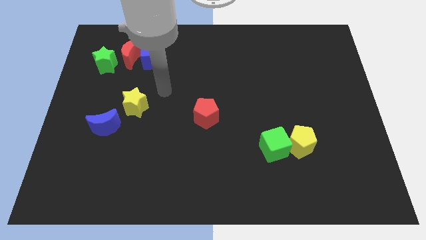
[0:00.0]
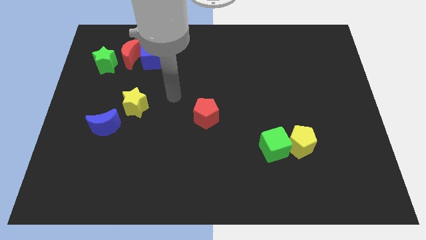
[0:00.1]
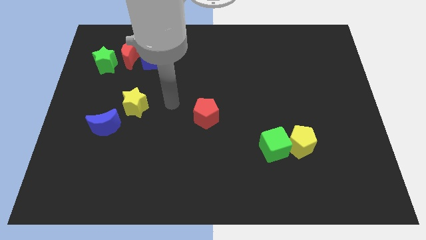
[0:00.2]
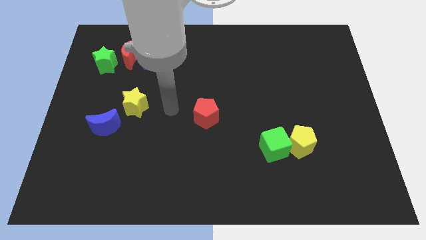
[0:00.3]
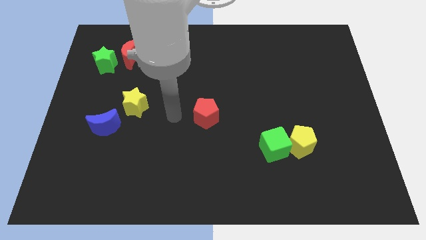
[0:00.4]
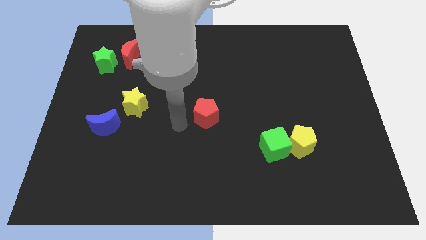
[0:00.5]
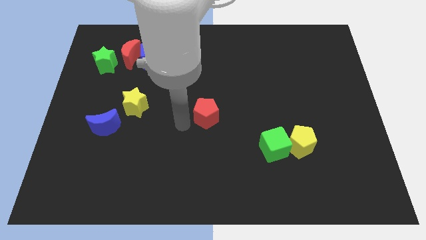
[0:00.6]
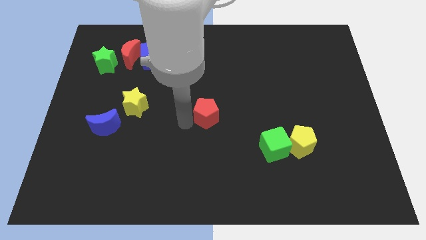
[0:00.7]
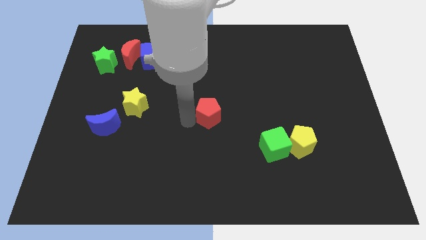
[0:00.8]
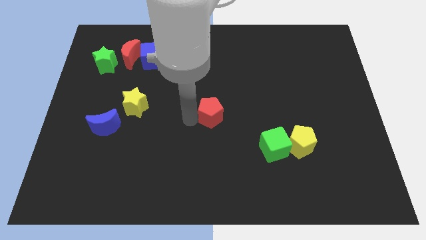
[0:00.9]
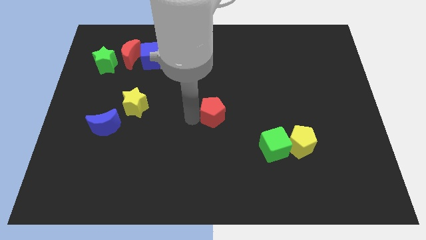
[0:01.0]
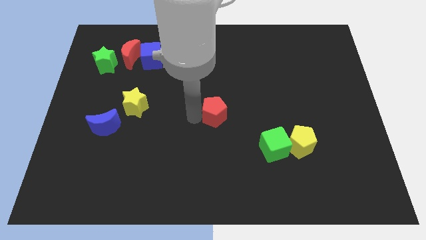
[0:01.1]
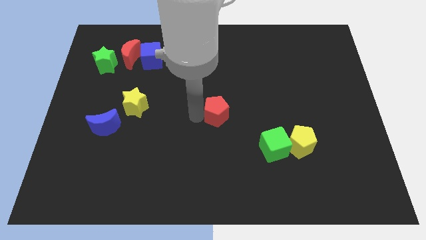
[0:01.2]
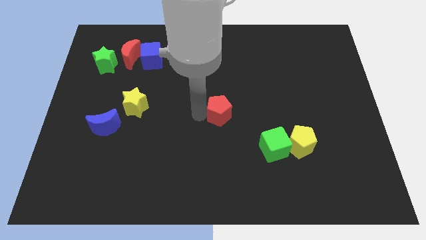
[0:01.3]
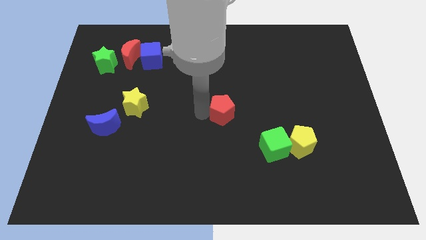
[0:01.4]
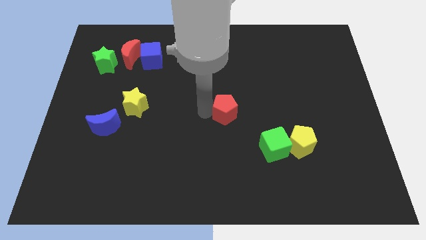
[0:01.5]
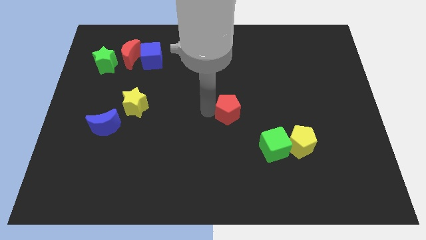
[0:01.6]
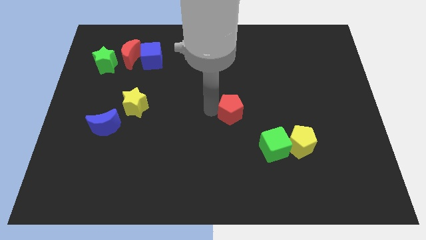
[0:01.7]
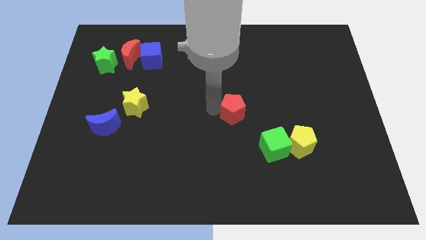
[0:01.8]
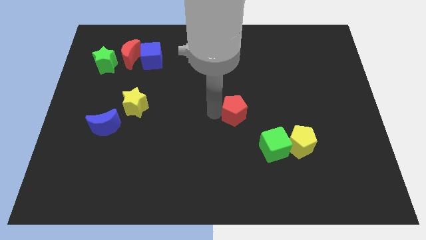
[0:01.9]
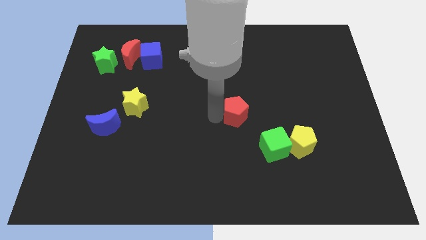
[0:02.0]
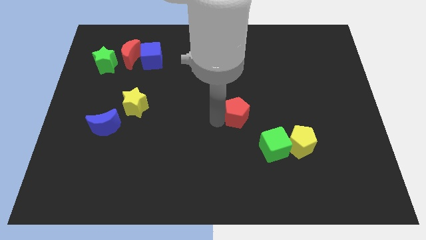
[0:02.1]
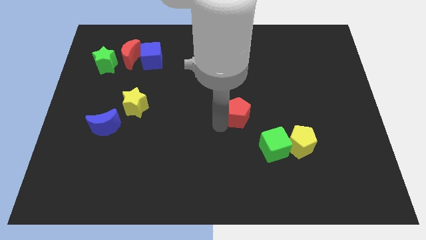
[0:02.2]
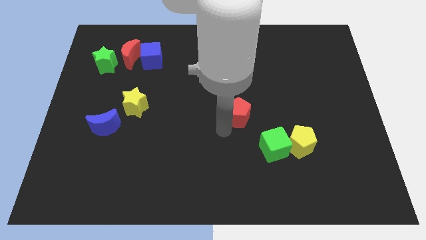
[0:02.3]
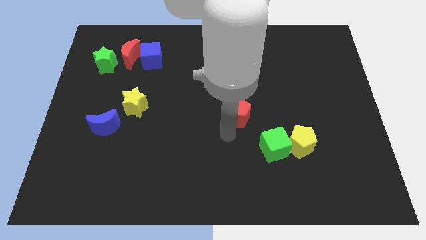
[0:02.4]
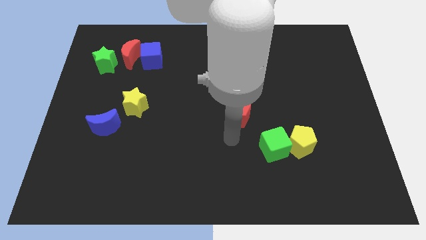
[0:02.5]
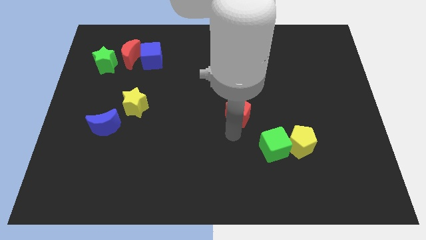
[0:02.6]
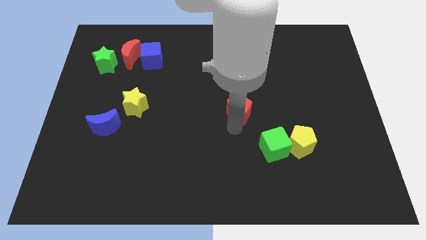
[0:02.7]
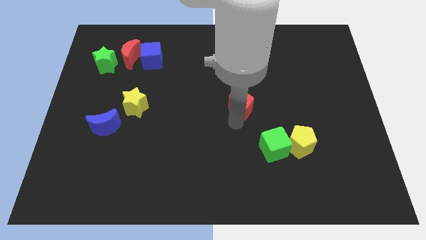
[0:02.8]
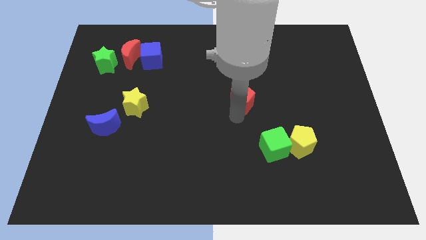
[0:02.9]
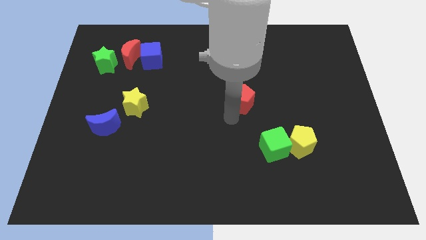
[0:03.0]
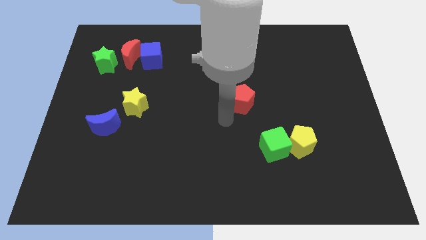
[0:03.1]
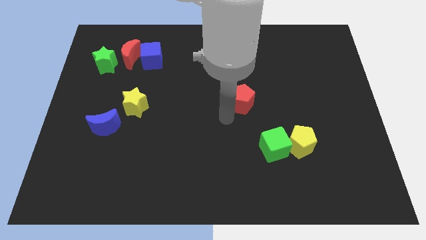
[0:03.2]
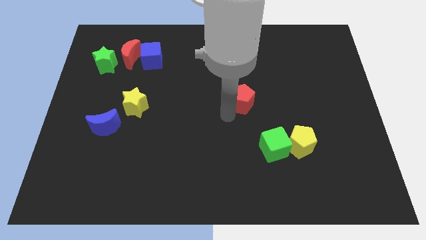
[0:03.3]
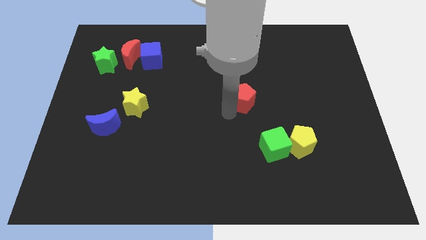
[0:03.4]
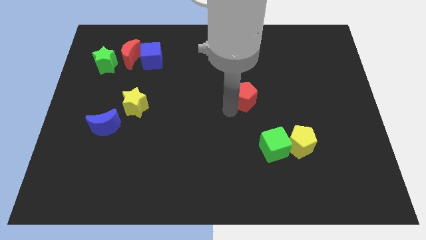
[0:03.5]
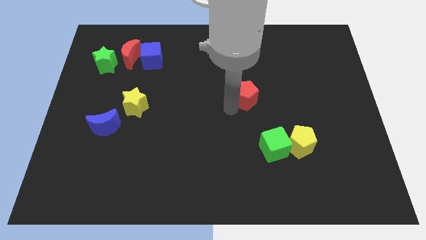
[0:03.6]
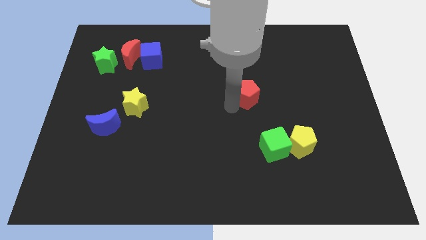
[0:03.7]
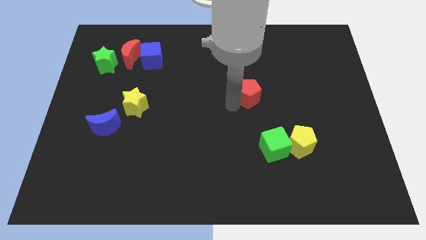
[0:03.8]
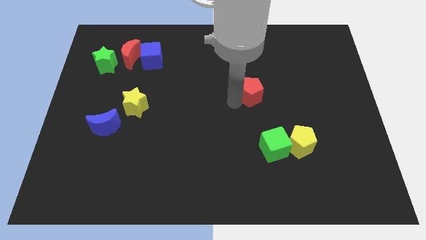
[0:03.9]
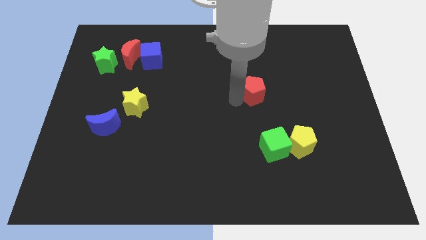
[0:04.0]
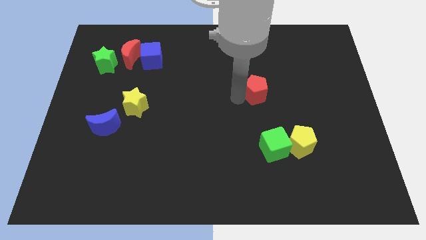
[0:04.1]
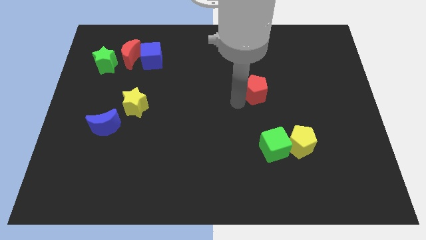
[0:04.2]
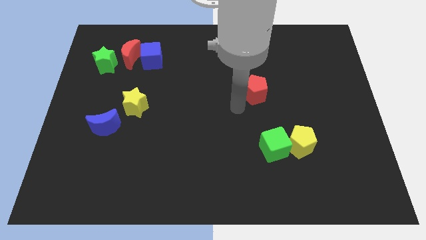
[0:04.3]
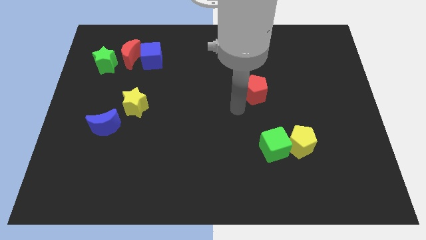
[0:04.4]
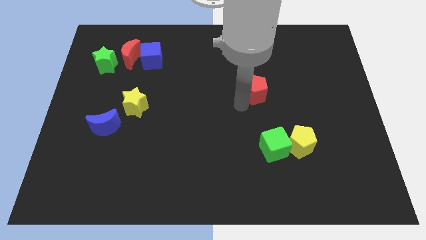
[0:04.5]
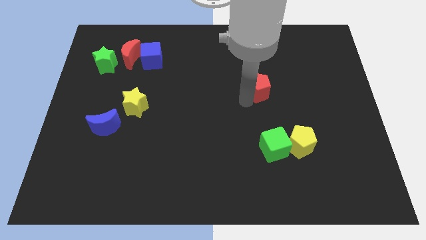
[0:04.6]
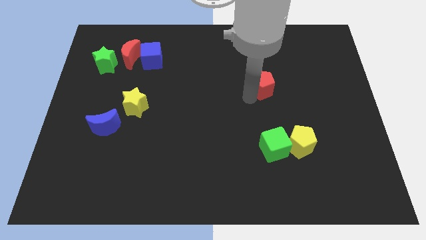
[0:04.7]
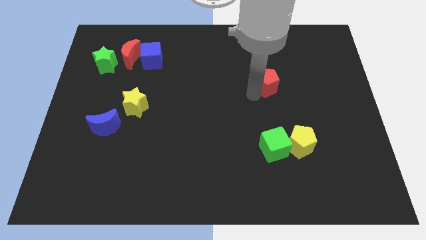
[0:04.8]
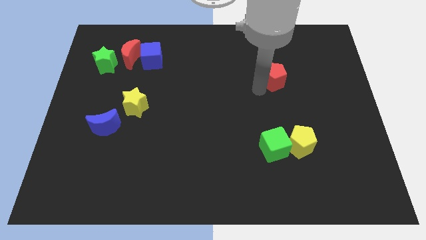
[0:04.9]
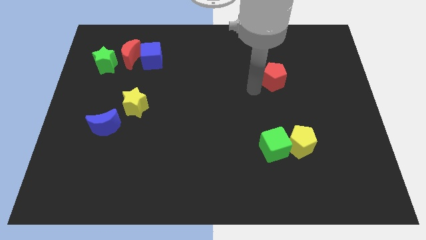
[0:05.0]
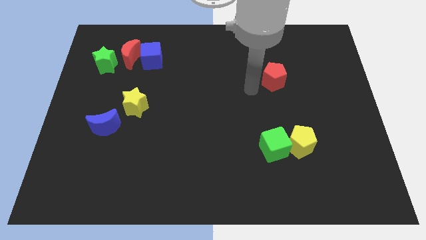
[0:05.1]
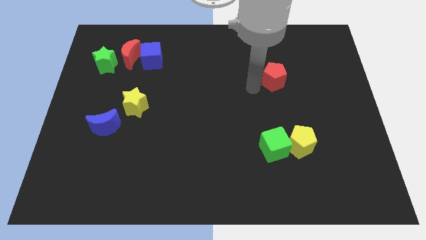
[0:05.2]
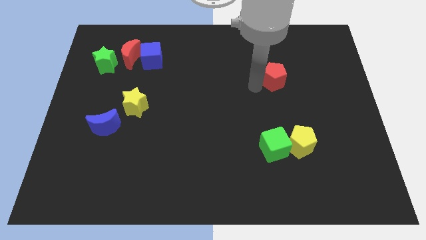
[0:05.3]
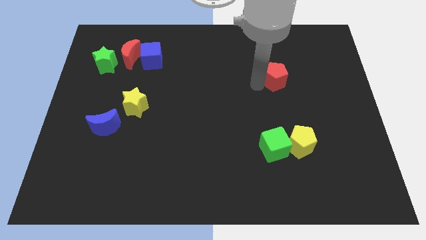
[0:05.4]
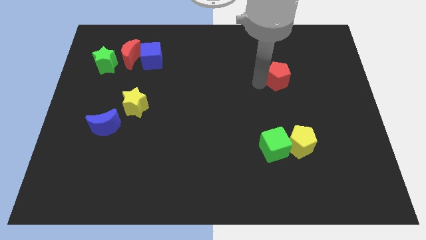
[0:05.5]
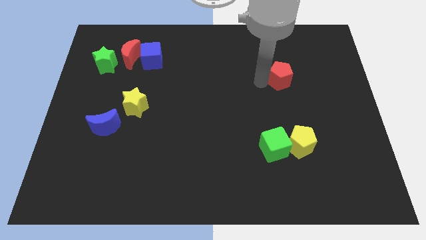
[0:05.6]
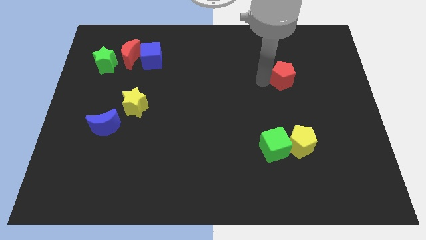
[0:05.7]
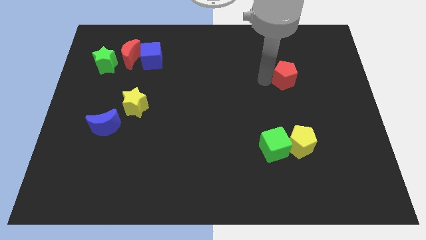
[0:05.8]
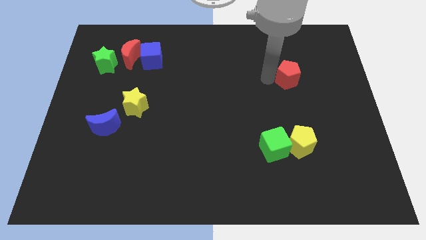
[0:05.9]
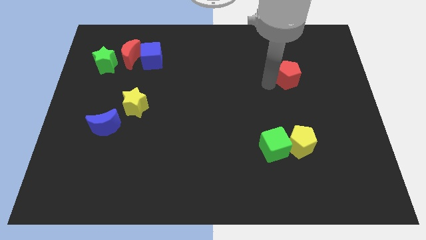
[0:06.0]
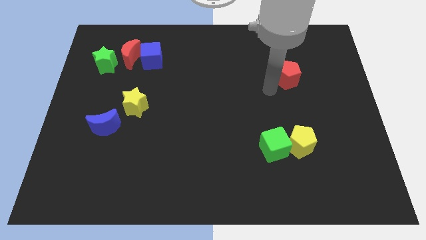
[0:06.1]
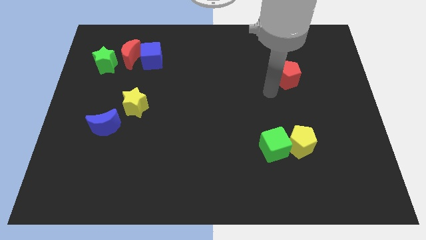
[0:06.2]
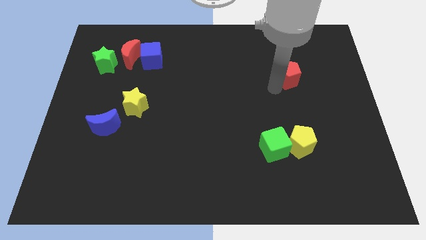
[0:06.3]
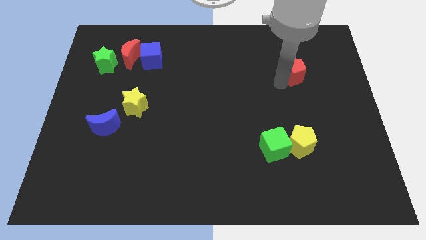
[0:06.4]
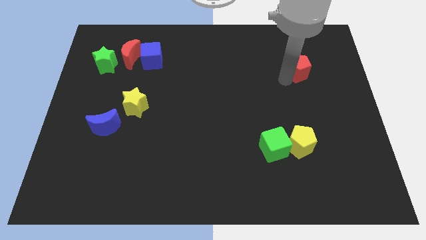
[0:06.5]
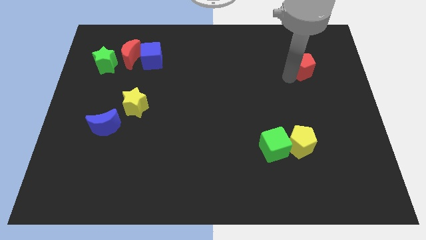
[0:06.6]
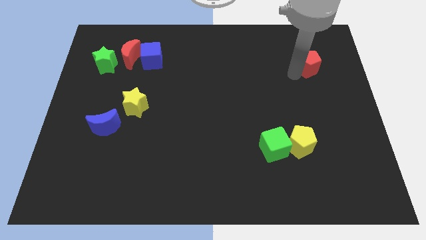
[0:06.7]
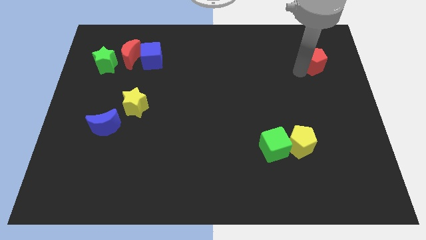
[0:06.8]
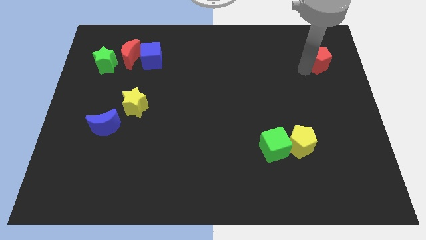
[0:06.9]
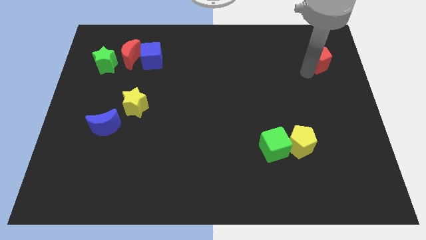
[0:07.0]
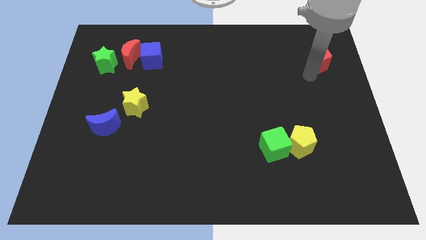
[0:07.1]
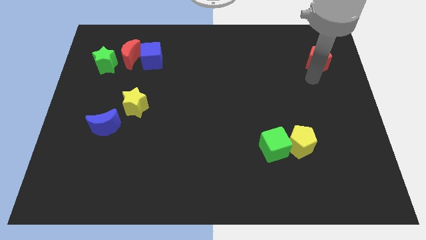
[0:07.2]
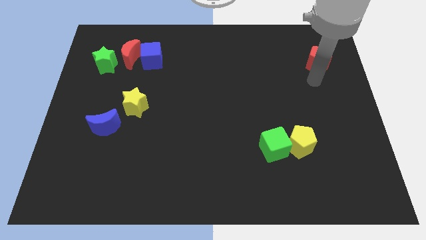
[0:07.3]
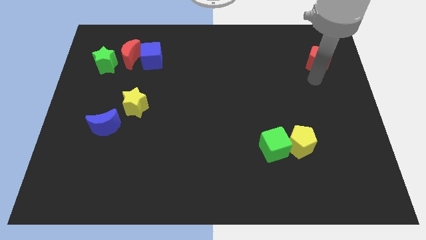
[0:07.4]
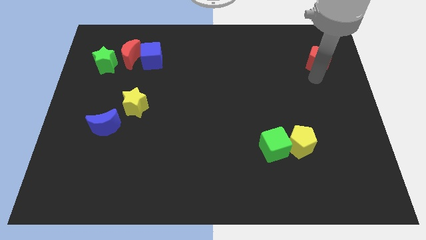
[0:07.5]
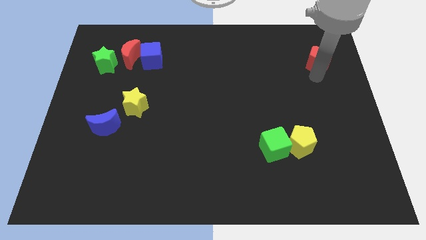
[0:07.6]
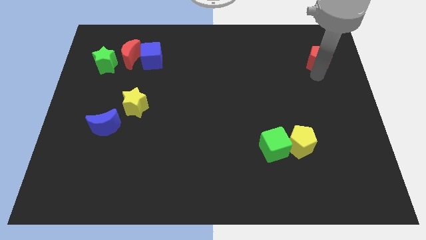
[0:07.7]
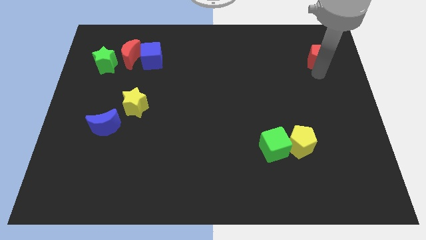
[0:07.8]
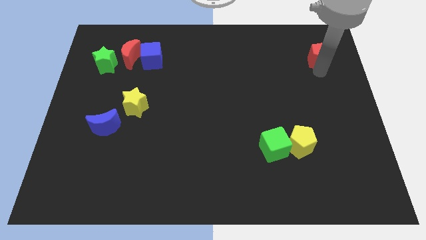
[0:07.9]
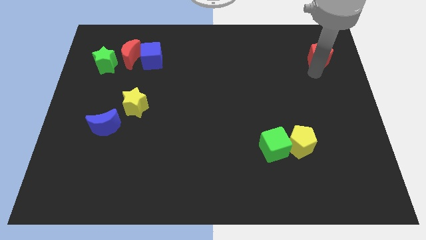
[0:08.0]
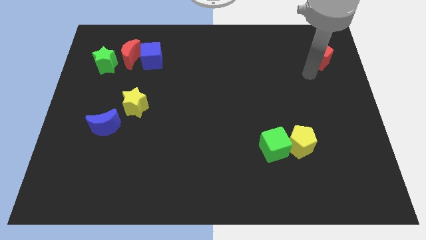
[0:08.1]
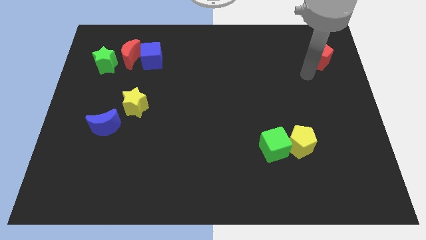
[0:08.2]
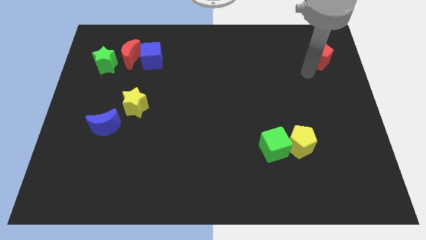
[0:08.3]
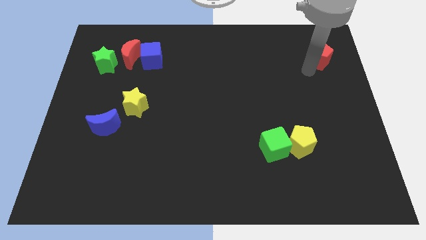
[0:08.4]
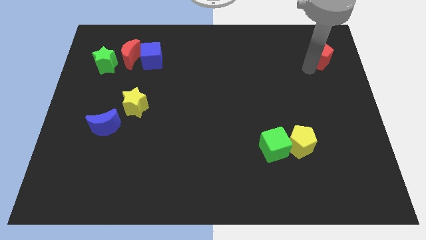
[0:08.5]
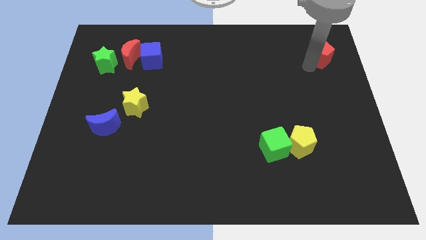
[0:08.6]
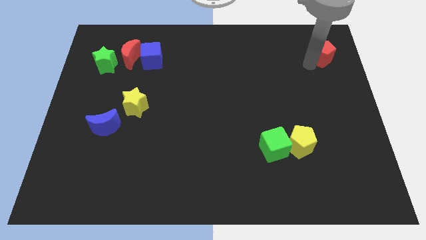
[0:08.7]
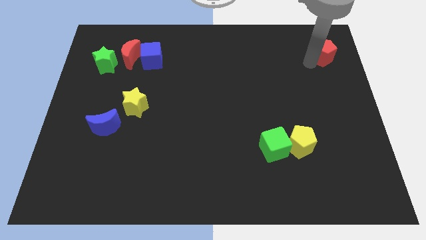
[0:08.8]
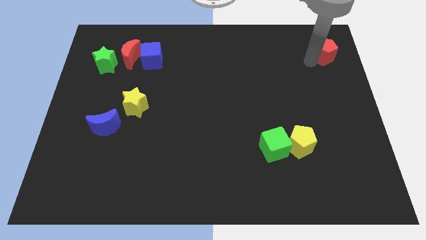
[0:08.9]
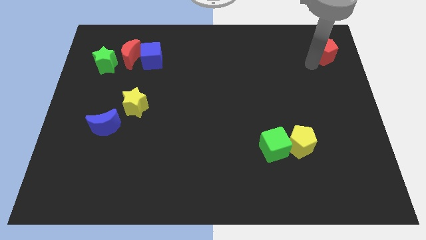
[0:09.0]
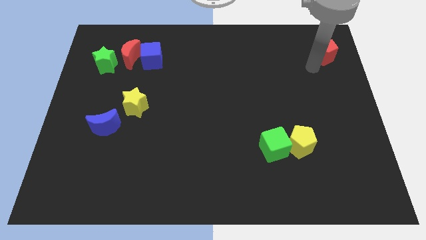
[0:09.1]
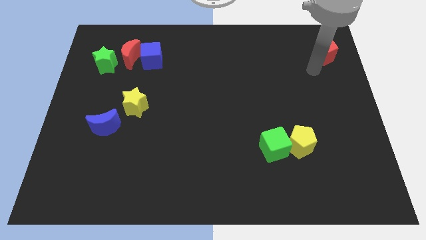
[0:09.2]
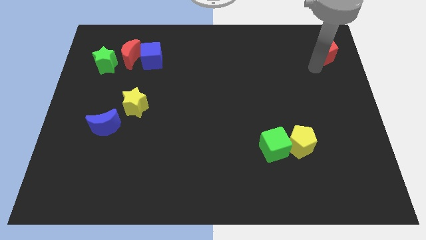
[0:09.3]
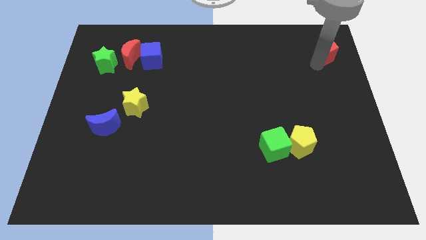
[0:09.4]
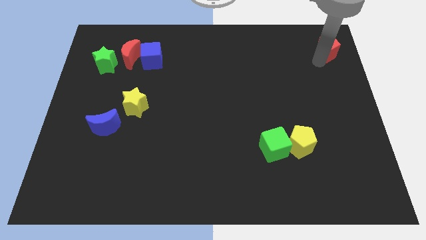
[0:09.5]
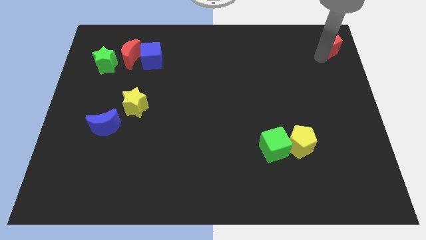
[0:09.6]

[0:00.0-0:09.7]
slide the red pentagon to the top right corner
